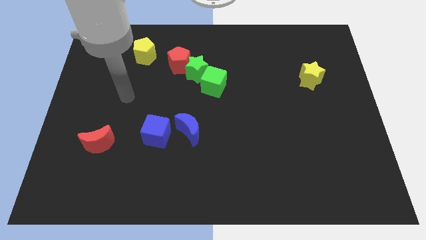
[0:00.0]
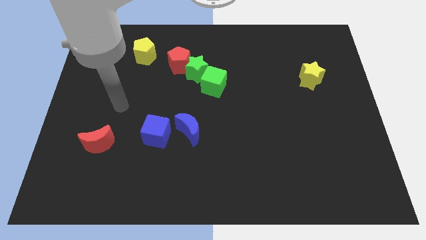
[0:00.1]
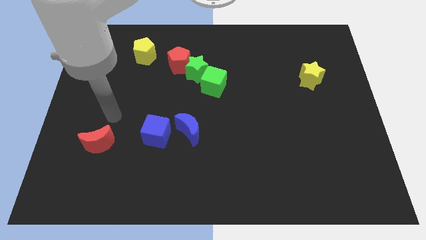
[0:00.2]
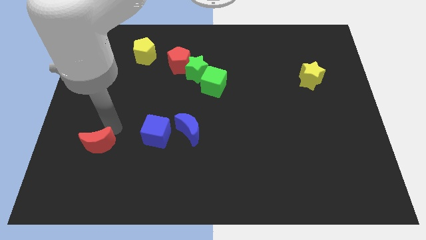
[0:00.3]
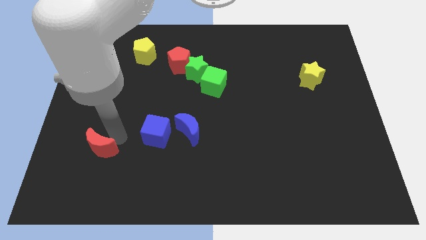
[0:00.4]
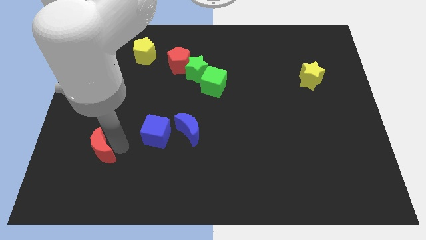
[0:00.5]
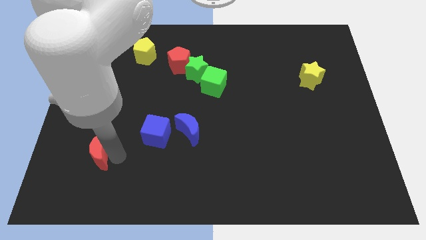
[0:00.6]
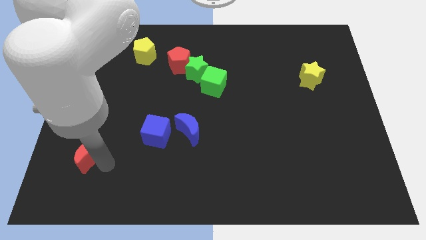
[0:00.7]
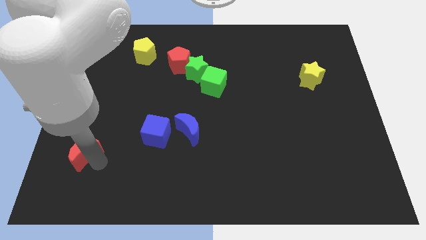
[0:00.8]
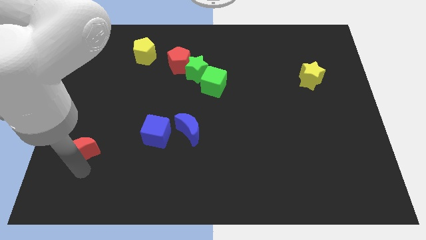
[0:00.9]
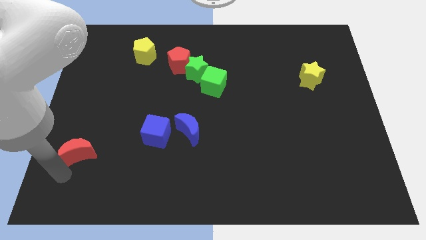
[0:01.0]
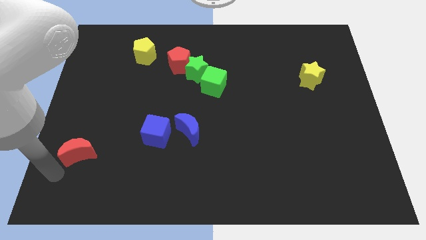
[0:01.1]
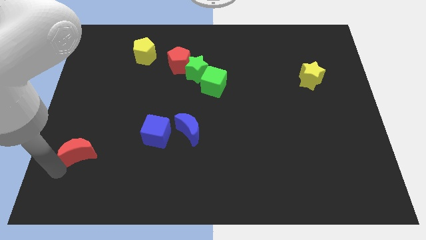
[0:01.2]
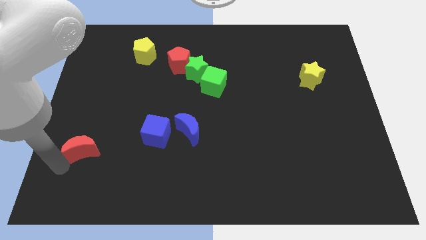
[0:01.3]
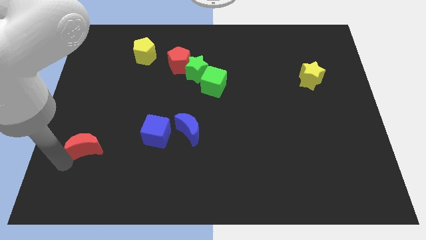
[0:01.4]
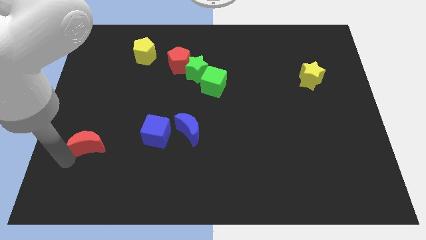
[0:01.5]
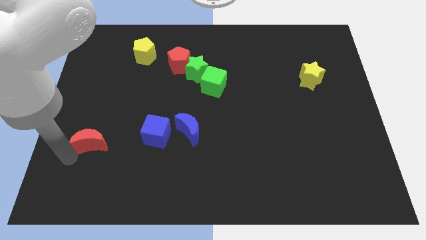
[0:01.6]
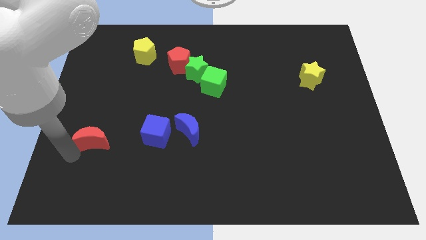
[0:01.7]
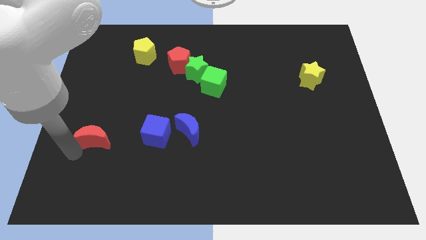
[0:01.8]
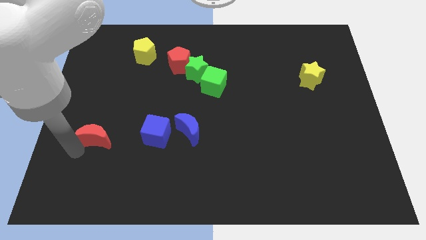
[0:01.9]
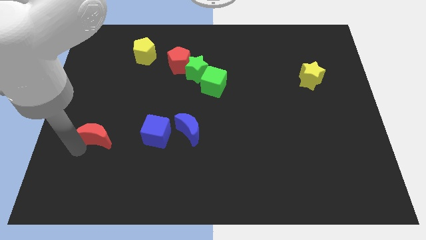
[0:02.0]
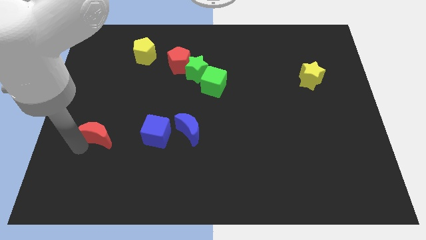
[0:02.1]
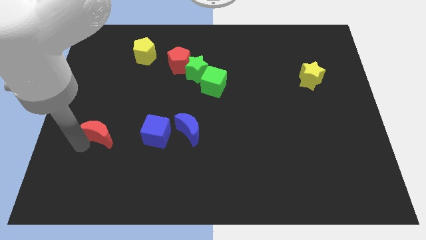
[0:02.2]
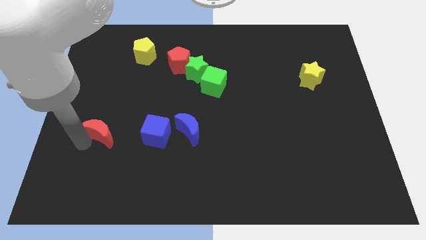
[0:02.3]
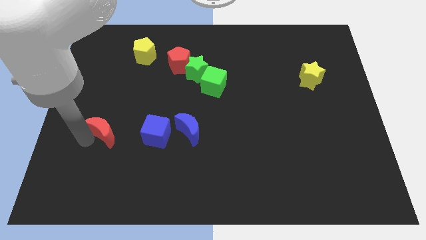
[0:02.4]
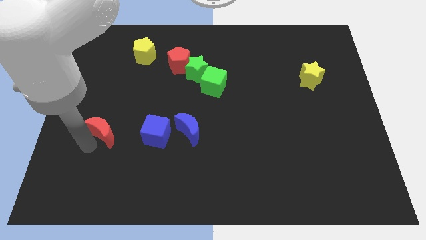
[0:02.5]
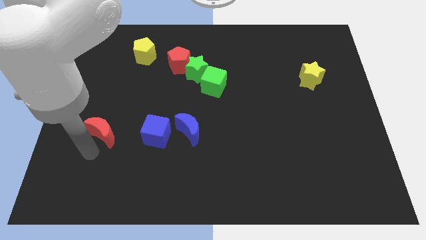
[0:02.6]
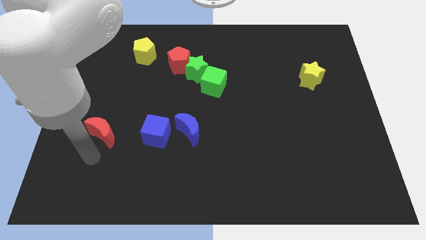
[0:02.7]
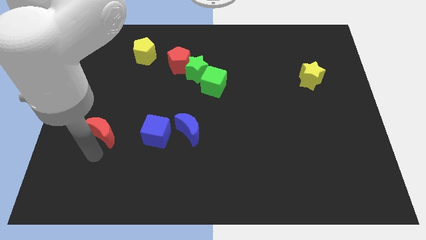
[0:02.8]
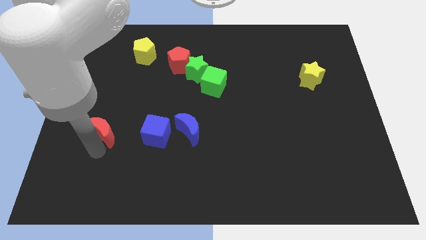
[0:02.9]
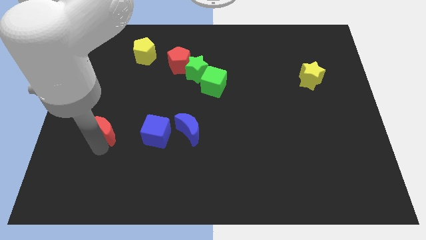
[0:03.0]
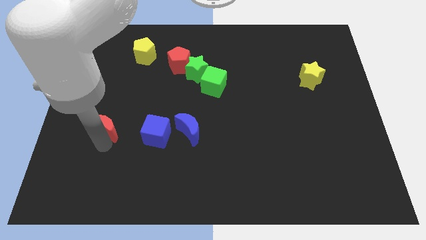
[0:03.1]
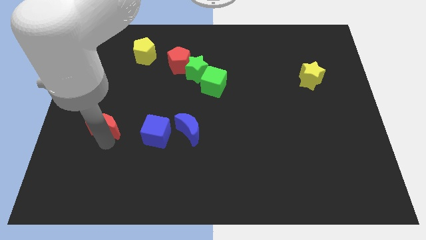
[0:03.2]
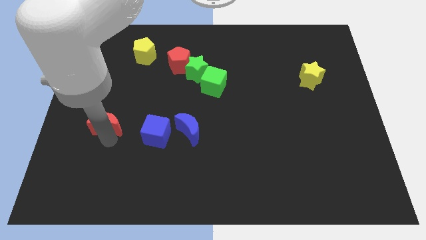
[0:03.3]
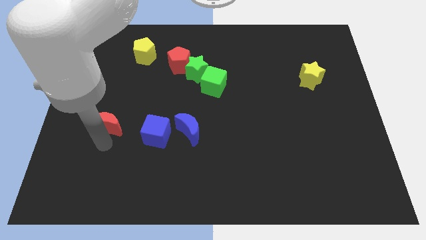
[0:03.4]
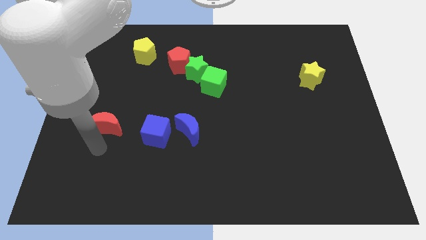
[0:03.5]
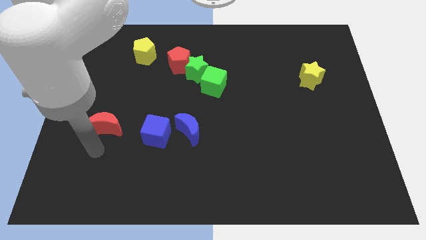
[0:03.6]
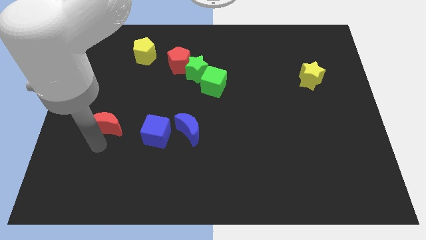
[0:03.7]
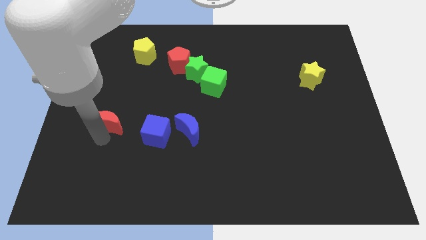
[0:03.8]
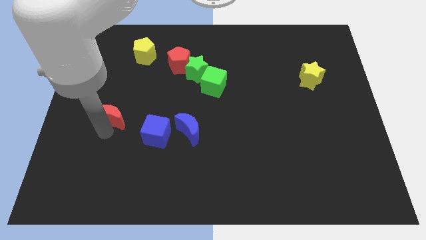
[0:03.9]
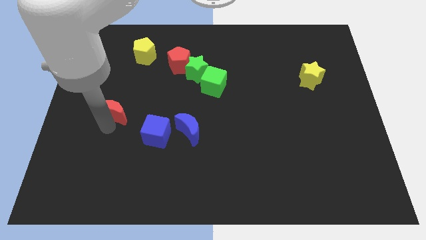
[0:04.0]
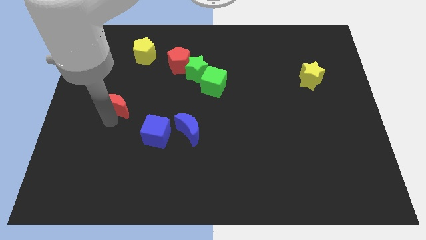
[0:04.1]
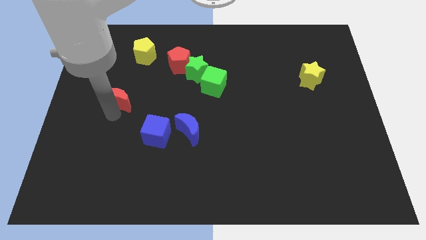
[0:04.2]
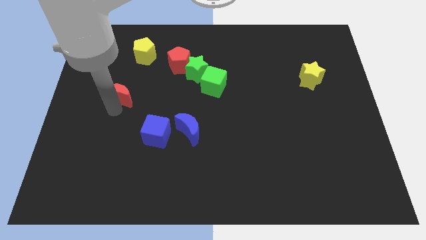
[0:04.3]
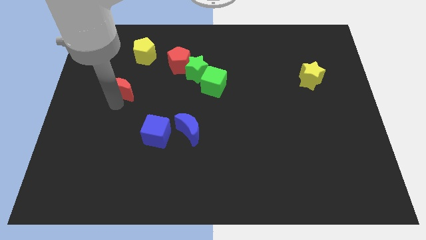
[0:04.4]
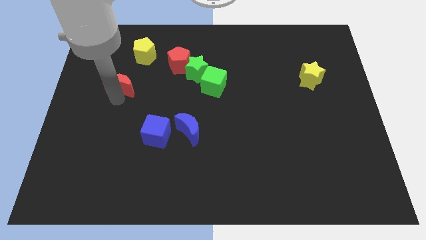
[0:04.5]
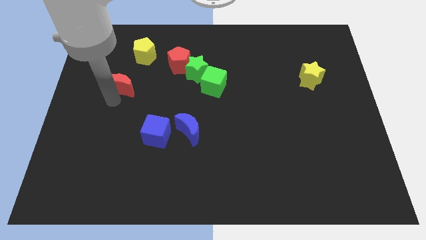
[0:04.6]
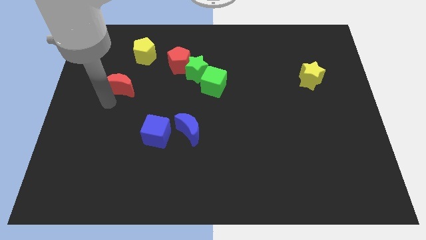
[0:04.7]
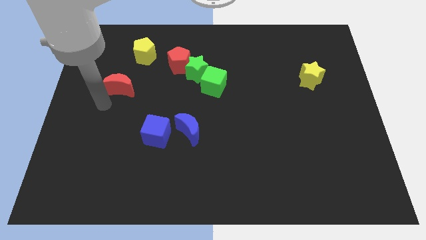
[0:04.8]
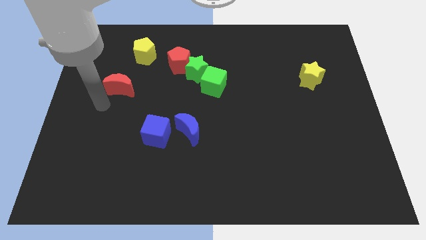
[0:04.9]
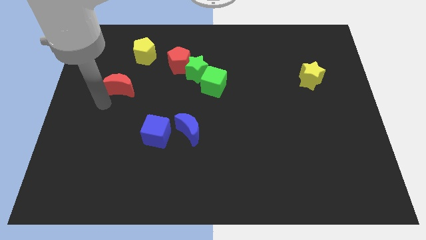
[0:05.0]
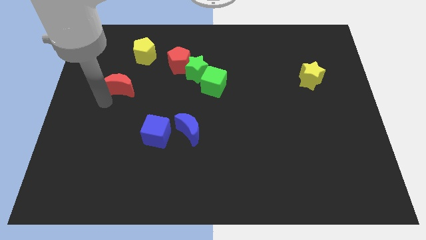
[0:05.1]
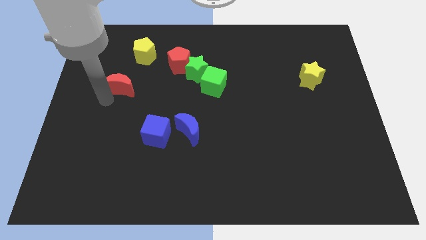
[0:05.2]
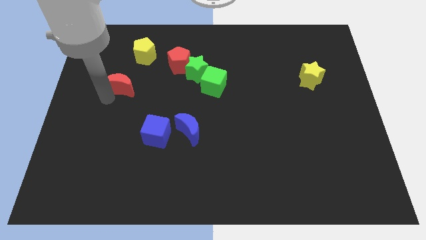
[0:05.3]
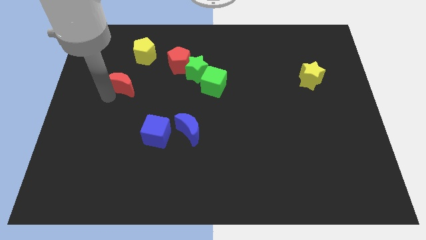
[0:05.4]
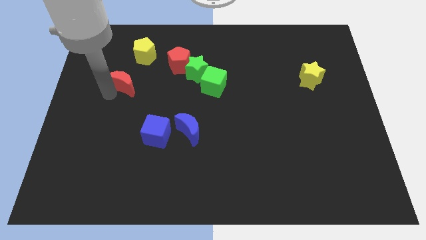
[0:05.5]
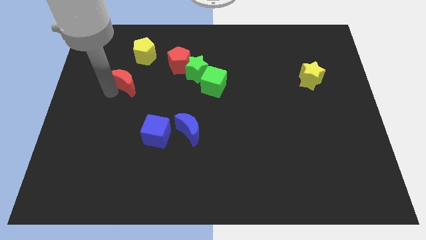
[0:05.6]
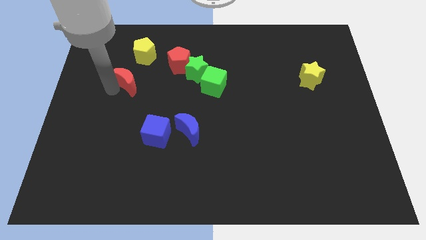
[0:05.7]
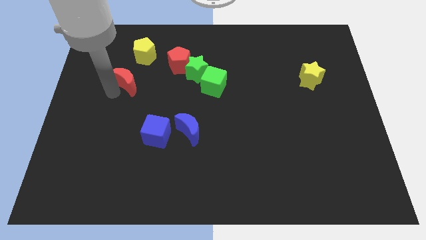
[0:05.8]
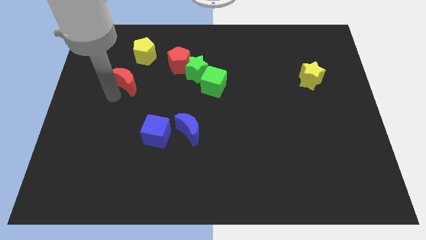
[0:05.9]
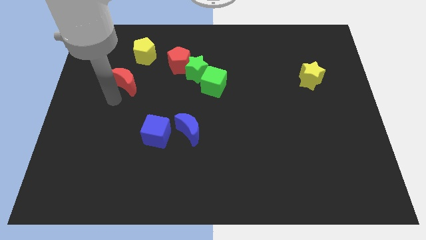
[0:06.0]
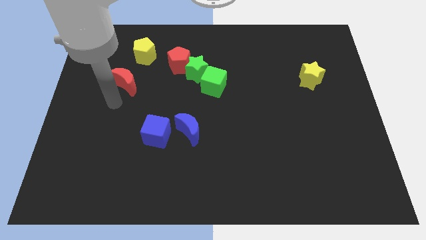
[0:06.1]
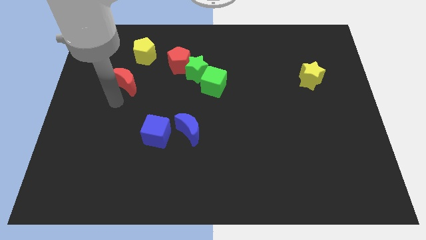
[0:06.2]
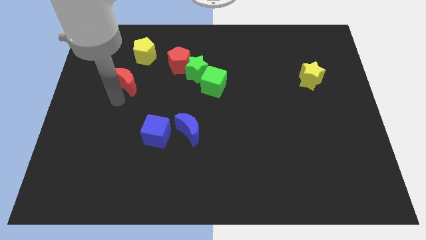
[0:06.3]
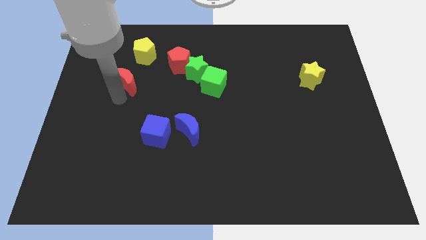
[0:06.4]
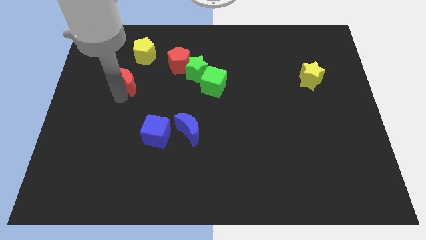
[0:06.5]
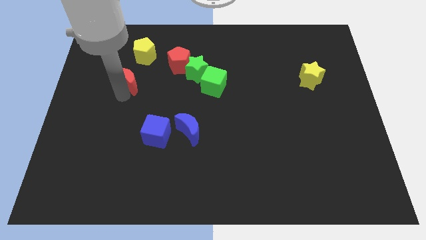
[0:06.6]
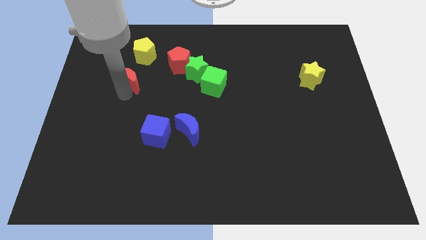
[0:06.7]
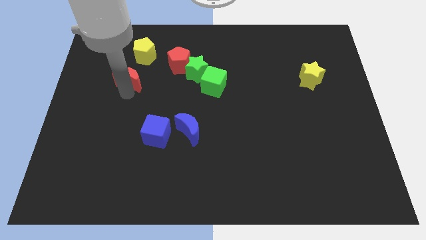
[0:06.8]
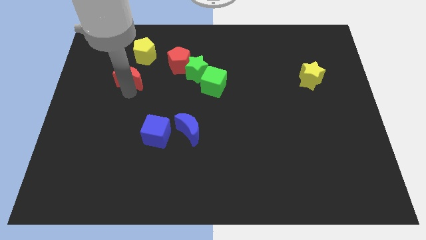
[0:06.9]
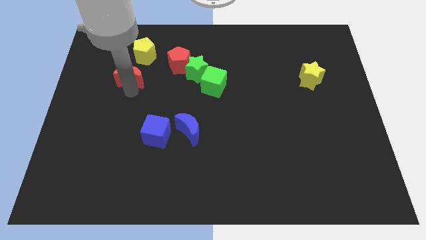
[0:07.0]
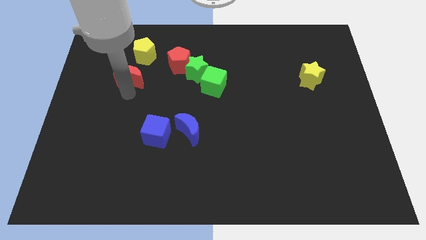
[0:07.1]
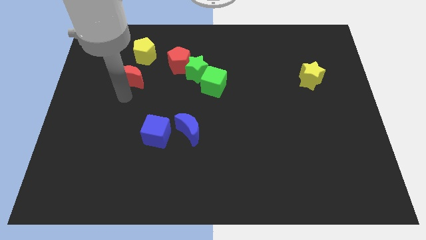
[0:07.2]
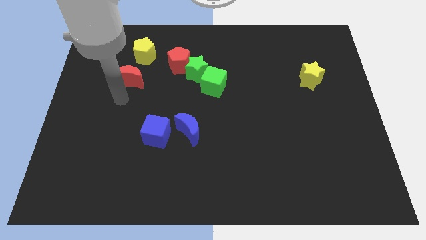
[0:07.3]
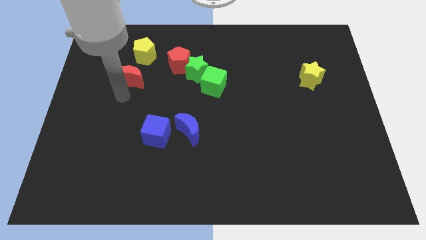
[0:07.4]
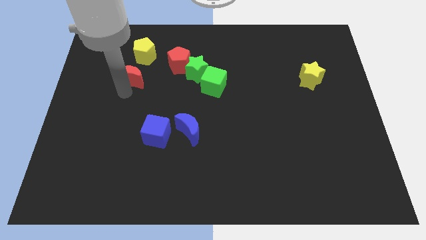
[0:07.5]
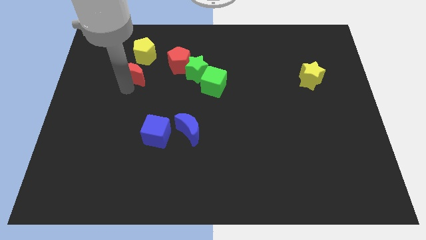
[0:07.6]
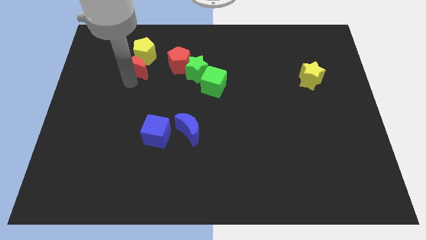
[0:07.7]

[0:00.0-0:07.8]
push the red moon next to the yellow pentagon
